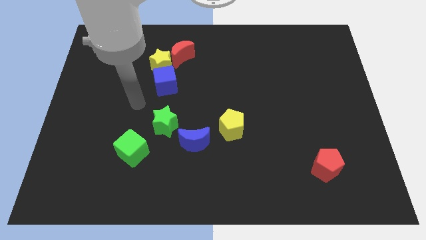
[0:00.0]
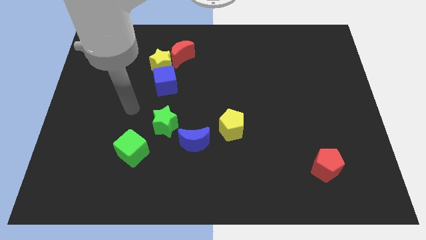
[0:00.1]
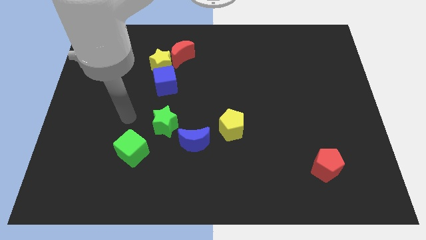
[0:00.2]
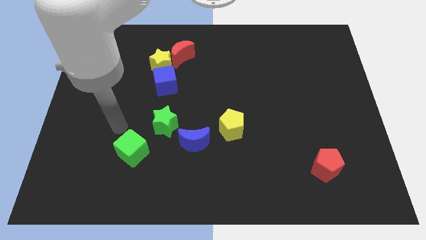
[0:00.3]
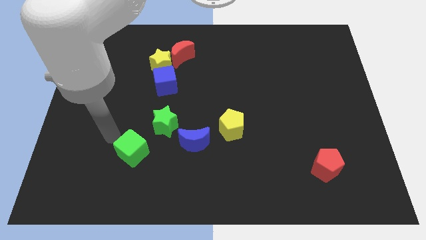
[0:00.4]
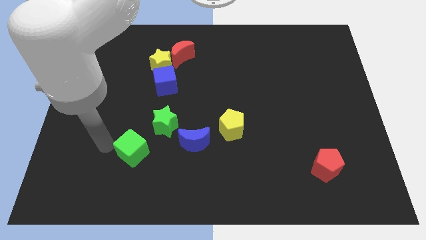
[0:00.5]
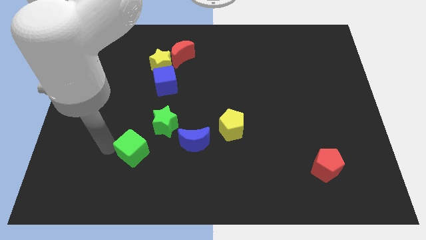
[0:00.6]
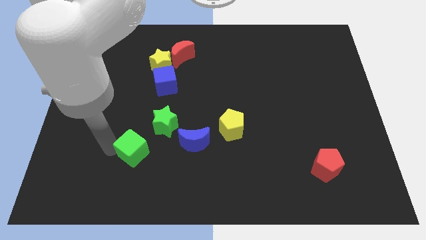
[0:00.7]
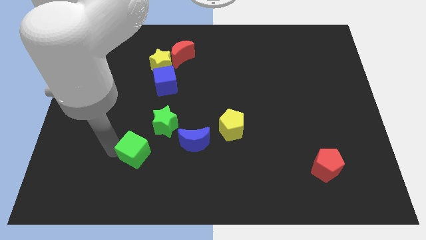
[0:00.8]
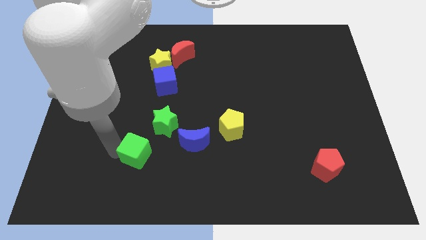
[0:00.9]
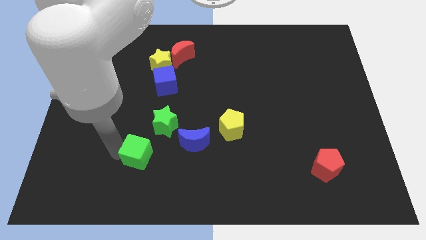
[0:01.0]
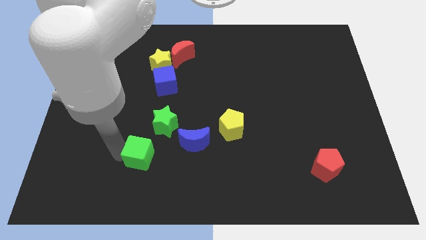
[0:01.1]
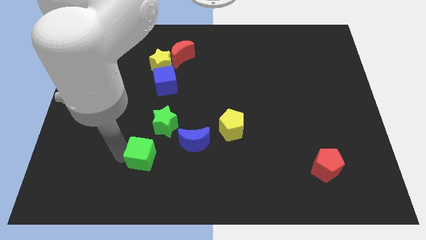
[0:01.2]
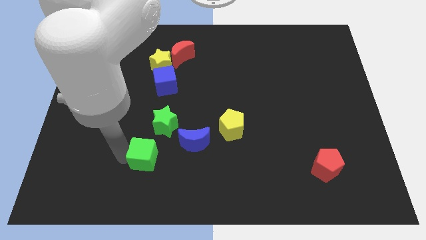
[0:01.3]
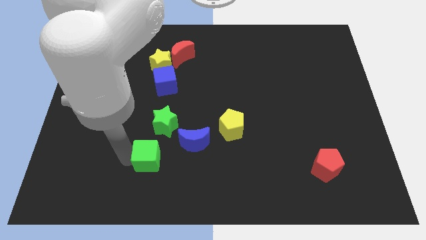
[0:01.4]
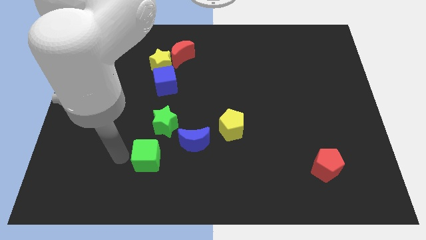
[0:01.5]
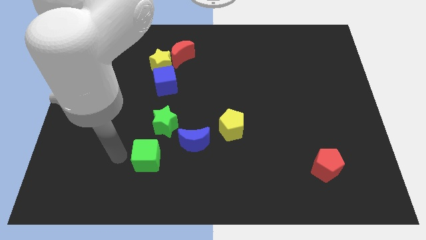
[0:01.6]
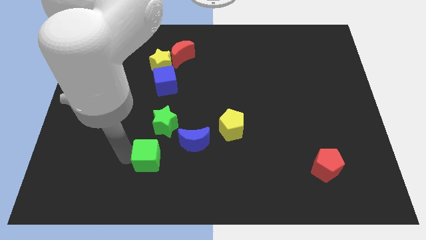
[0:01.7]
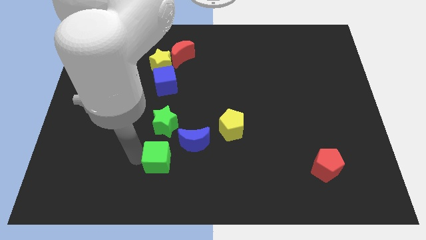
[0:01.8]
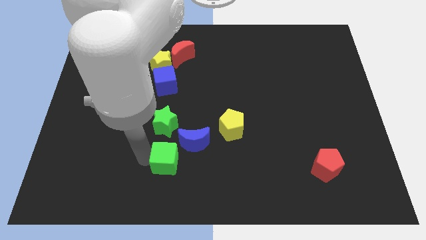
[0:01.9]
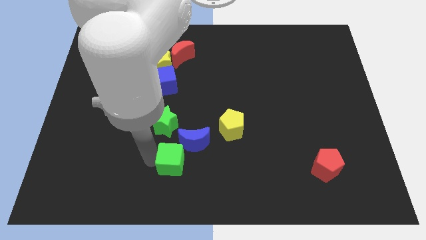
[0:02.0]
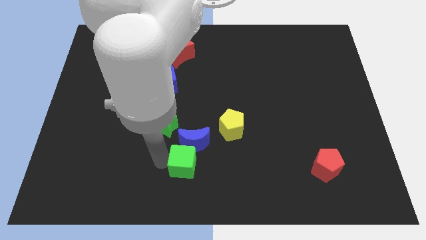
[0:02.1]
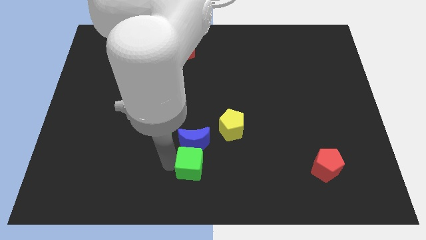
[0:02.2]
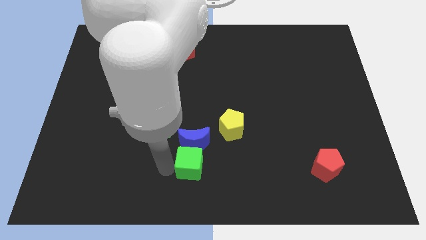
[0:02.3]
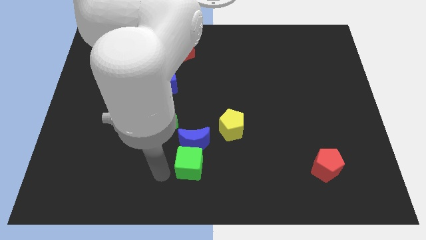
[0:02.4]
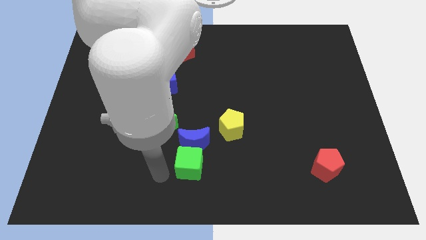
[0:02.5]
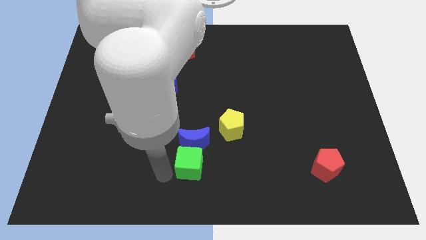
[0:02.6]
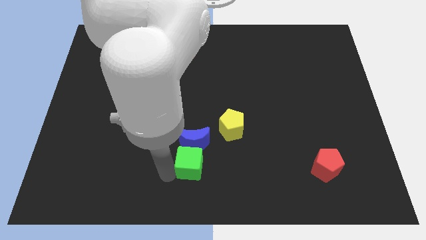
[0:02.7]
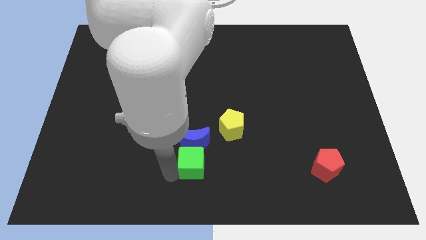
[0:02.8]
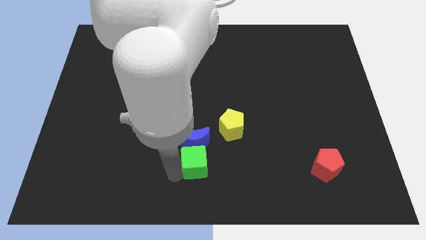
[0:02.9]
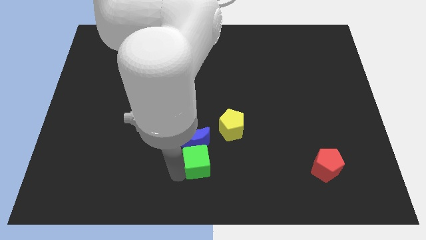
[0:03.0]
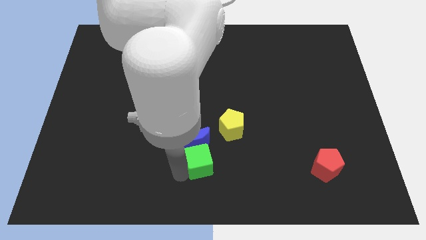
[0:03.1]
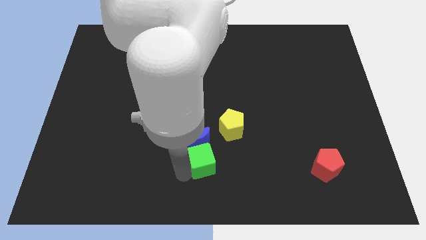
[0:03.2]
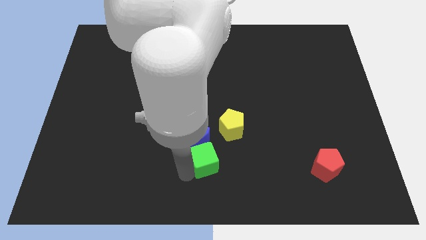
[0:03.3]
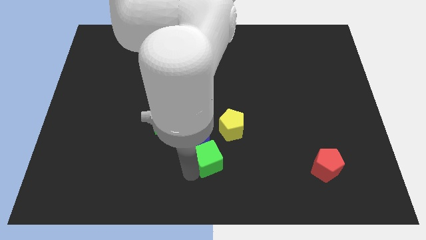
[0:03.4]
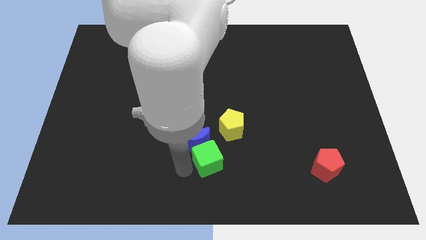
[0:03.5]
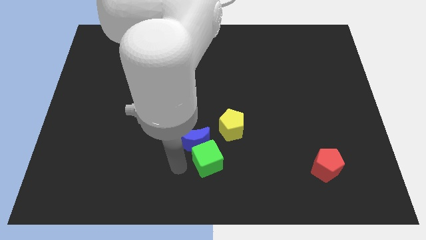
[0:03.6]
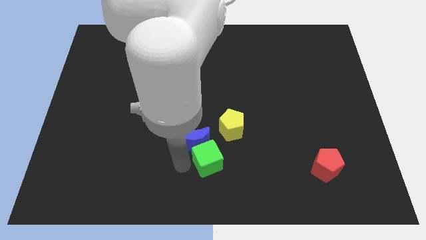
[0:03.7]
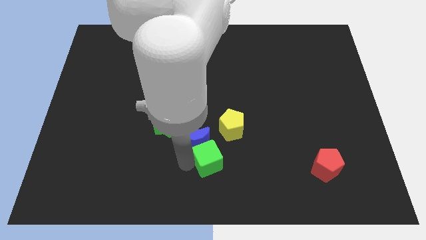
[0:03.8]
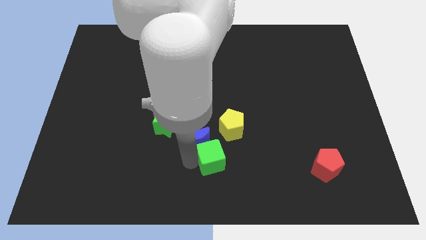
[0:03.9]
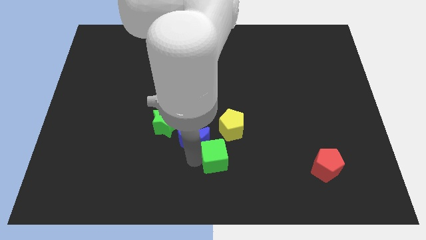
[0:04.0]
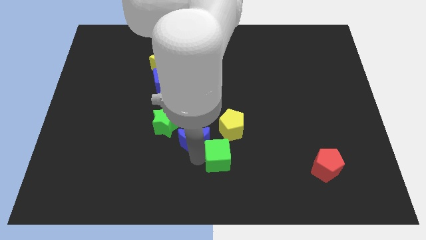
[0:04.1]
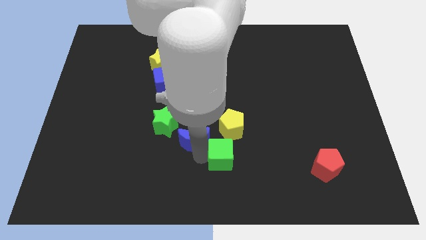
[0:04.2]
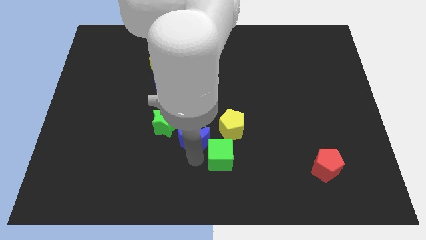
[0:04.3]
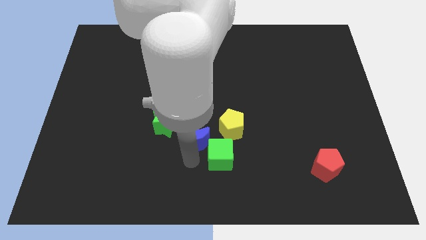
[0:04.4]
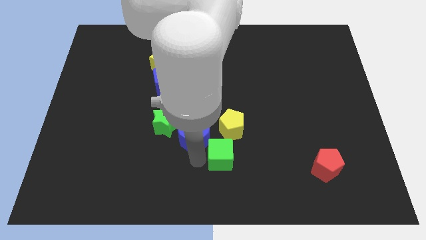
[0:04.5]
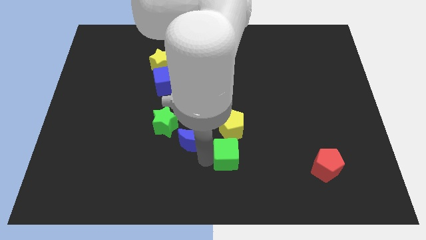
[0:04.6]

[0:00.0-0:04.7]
push the green cube to the right

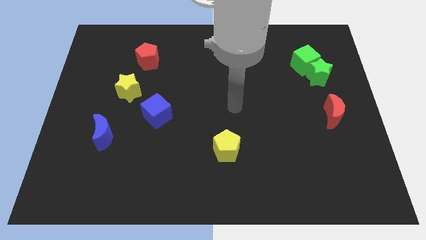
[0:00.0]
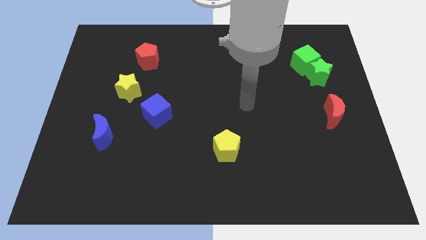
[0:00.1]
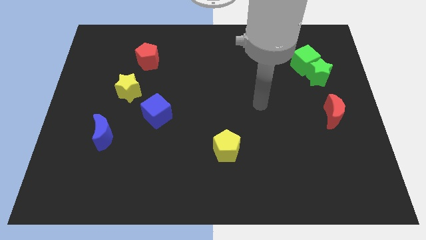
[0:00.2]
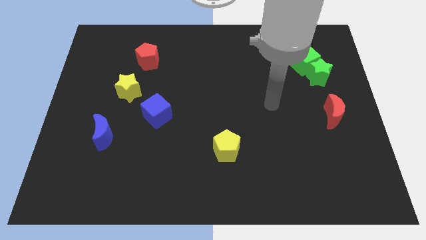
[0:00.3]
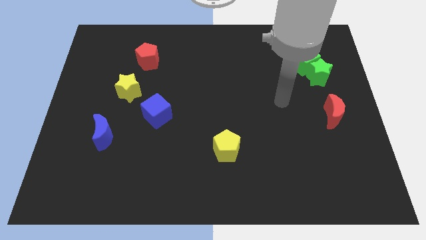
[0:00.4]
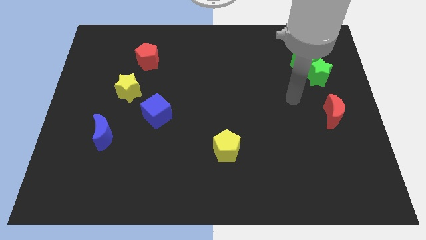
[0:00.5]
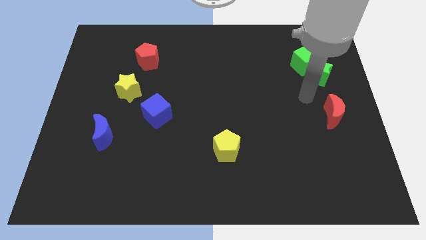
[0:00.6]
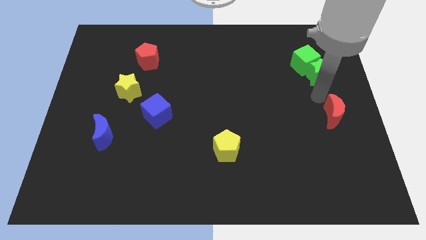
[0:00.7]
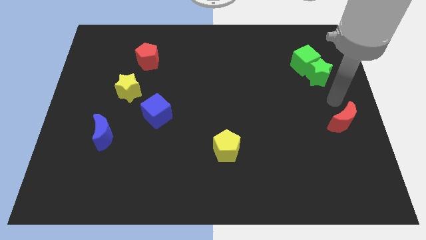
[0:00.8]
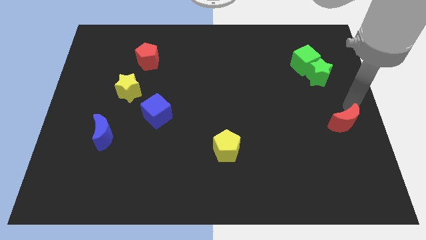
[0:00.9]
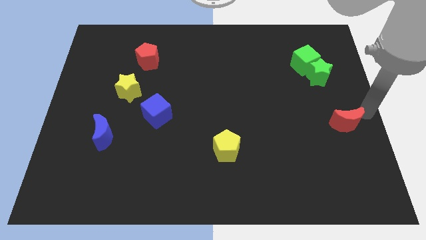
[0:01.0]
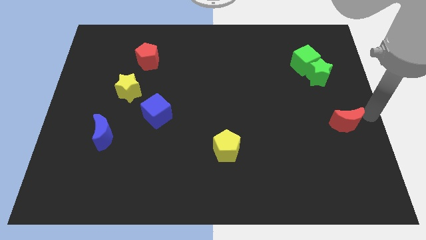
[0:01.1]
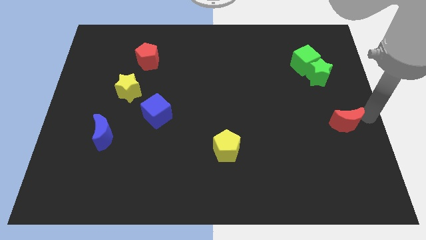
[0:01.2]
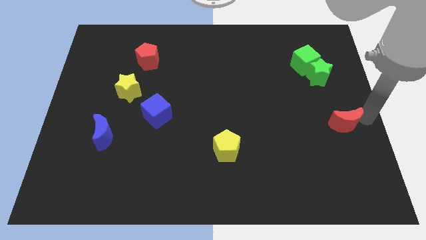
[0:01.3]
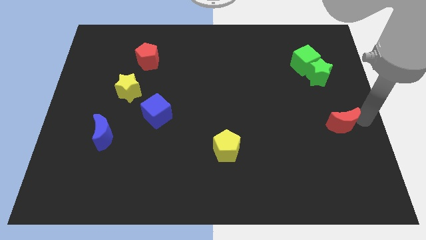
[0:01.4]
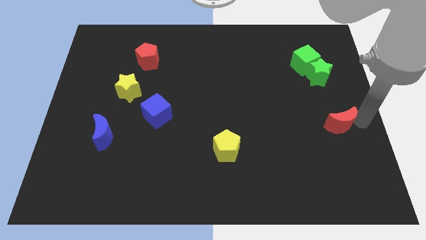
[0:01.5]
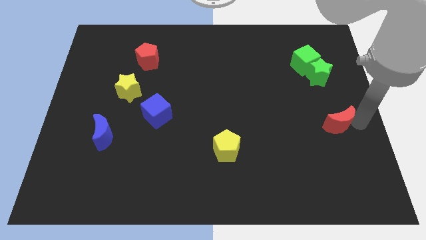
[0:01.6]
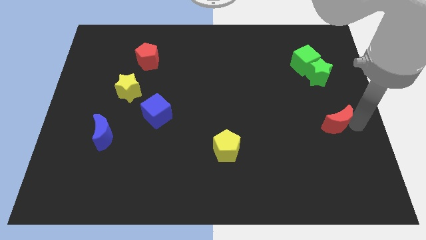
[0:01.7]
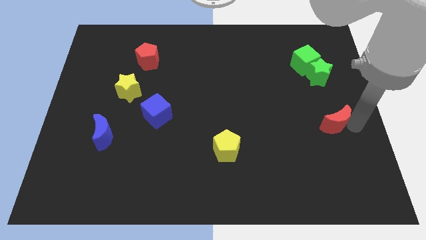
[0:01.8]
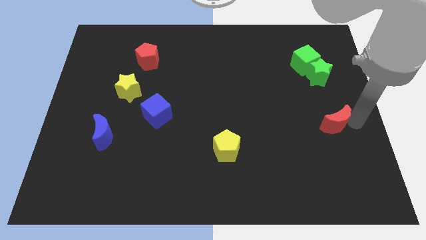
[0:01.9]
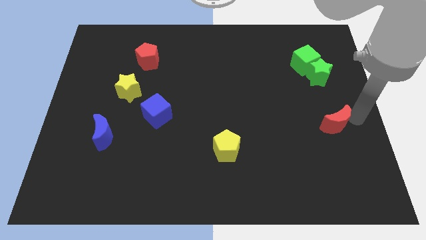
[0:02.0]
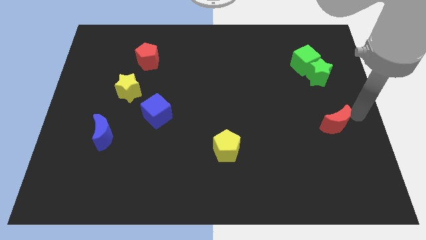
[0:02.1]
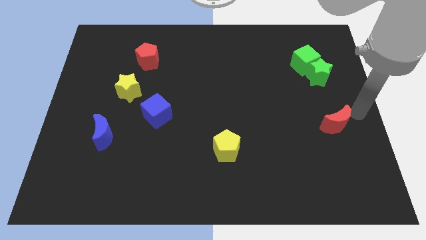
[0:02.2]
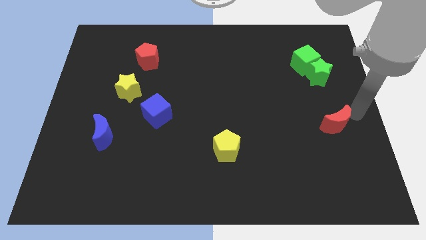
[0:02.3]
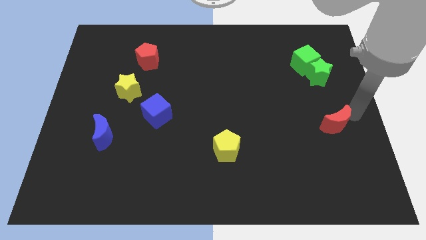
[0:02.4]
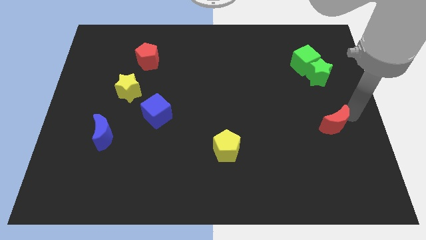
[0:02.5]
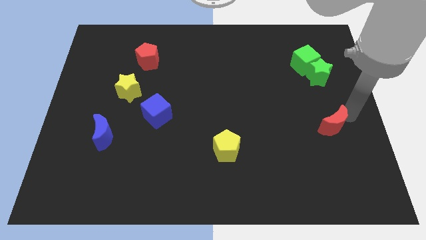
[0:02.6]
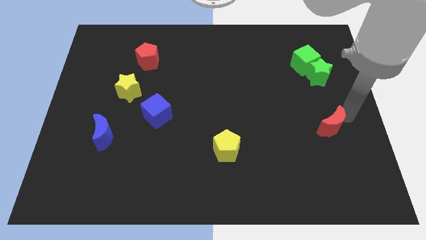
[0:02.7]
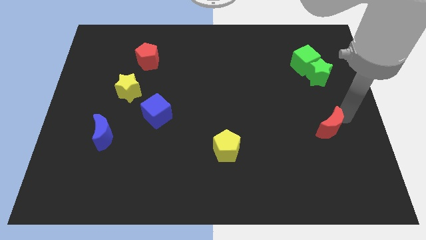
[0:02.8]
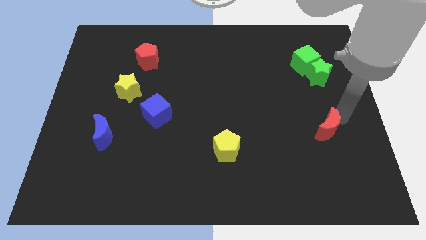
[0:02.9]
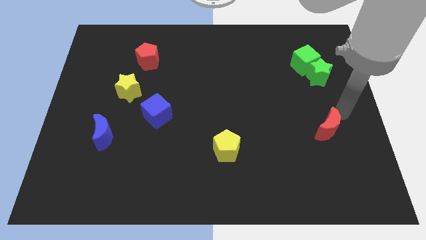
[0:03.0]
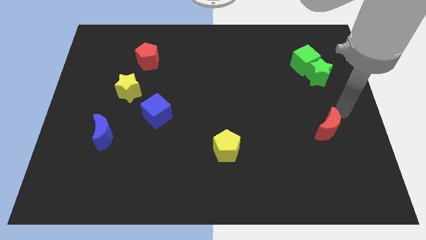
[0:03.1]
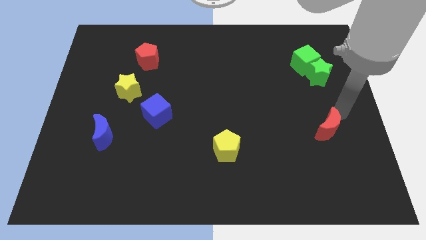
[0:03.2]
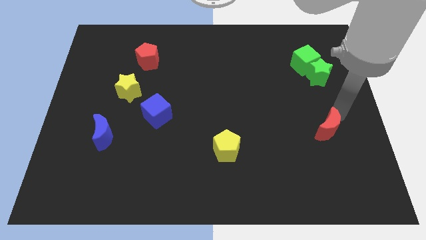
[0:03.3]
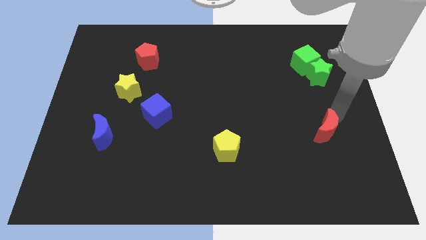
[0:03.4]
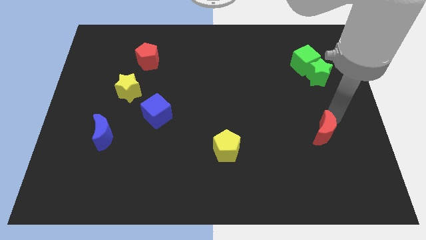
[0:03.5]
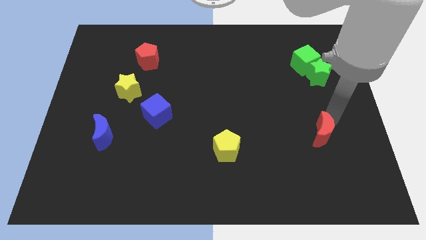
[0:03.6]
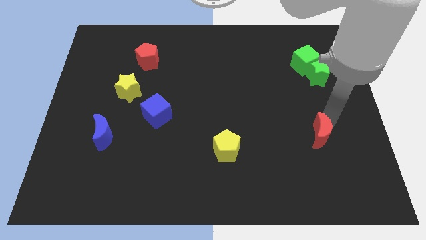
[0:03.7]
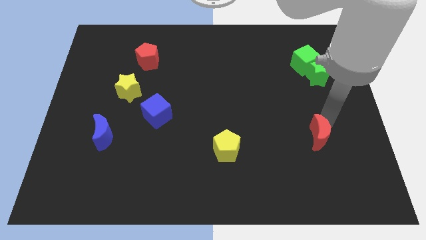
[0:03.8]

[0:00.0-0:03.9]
move the red moon a little bit down and then left
